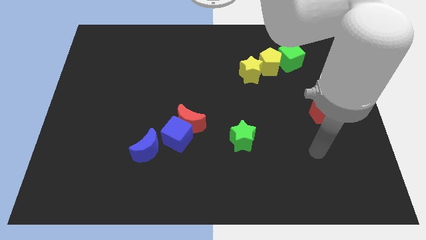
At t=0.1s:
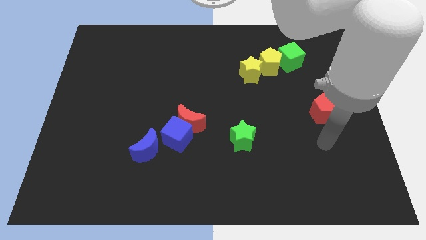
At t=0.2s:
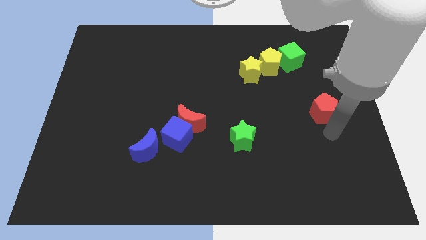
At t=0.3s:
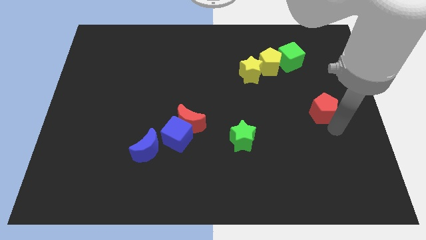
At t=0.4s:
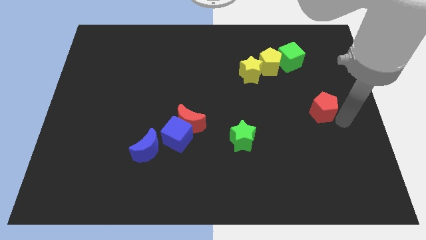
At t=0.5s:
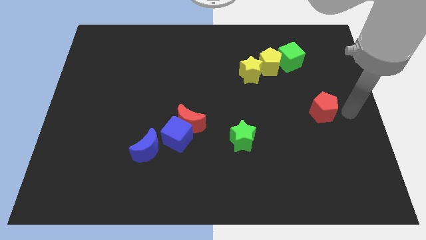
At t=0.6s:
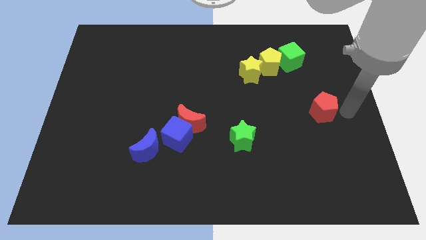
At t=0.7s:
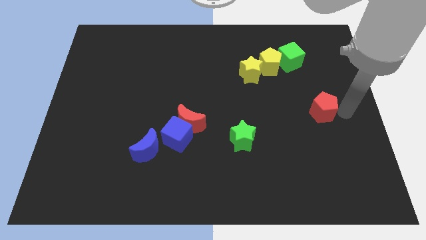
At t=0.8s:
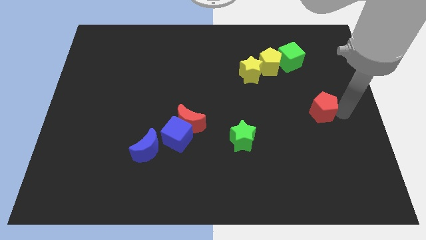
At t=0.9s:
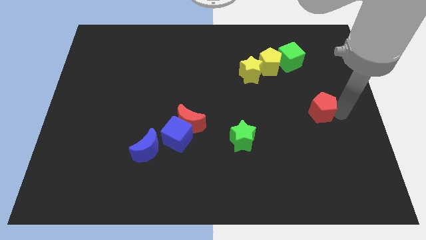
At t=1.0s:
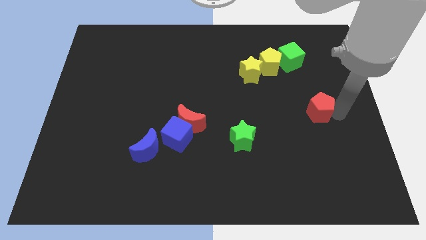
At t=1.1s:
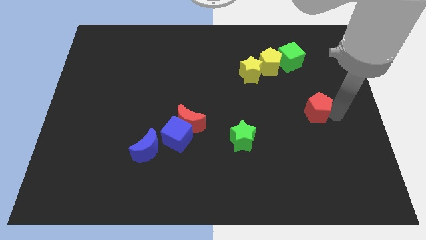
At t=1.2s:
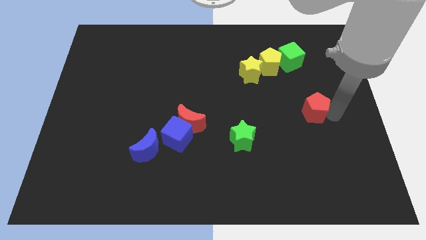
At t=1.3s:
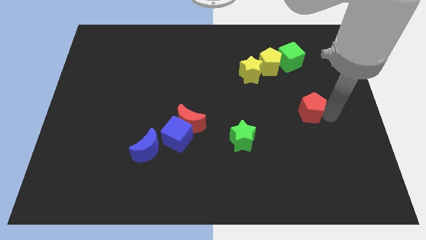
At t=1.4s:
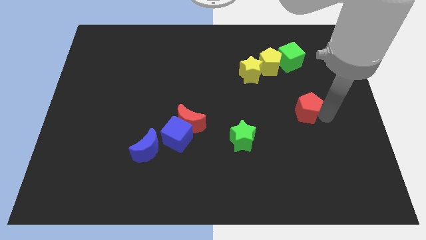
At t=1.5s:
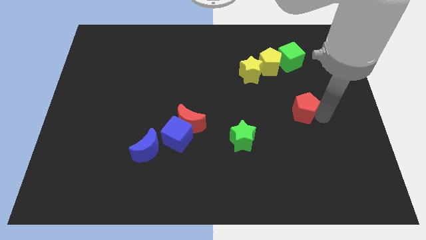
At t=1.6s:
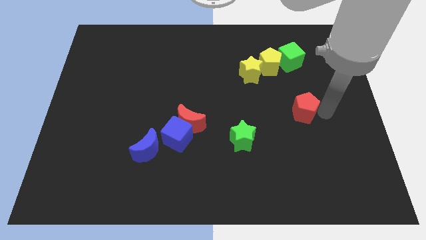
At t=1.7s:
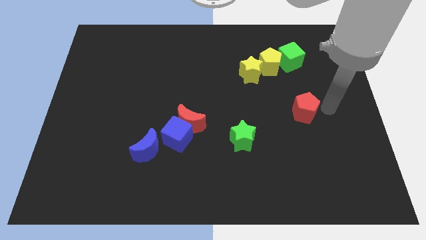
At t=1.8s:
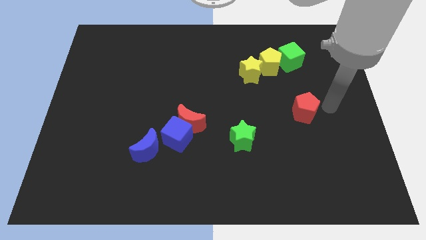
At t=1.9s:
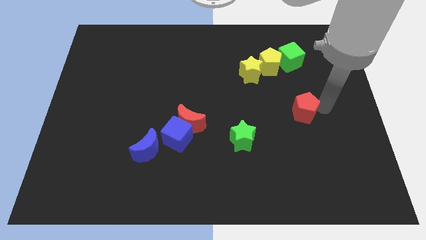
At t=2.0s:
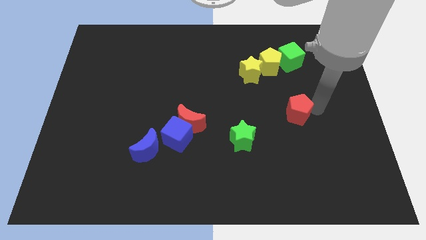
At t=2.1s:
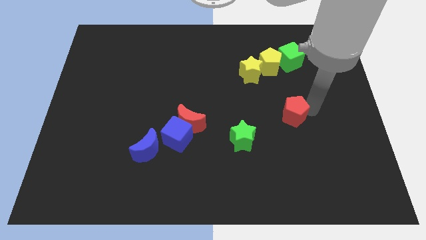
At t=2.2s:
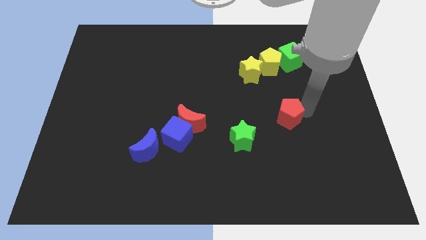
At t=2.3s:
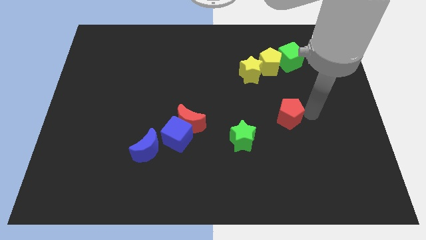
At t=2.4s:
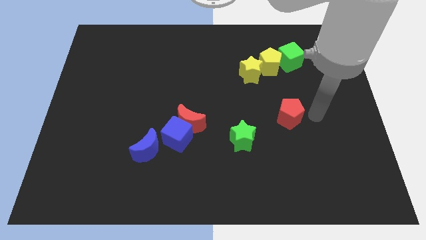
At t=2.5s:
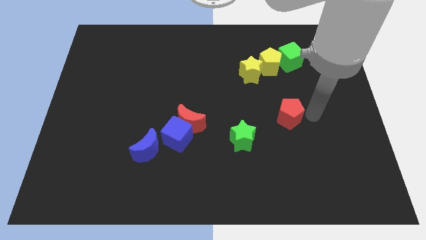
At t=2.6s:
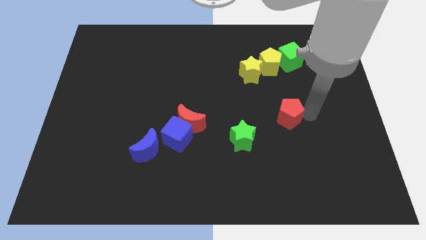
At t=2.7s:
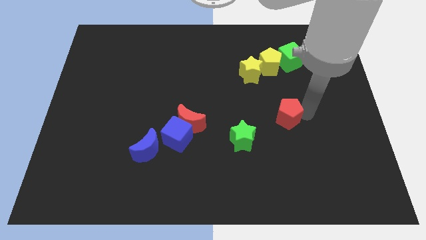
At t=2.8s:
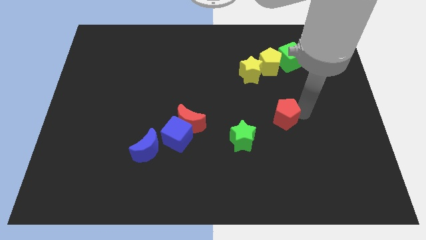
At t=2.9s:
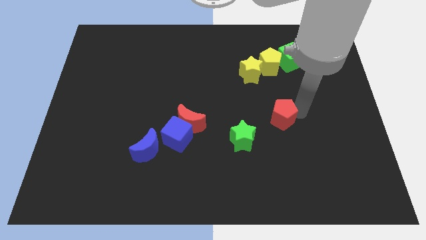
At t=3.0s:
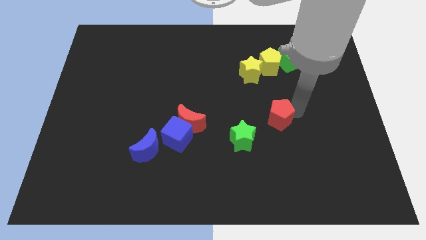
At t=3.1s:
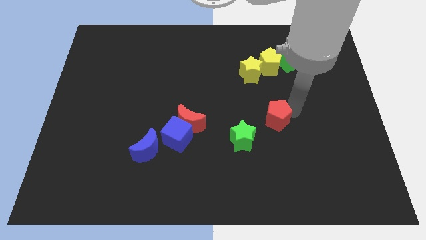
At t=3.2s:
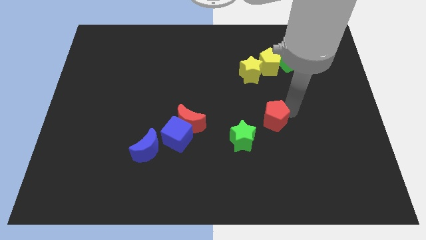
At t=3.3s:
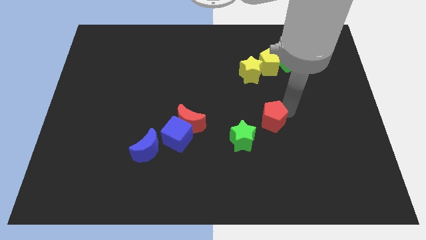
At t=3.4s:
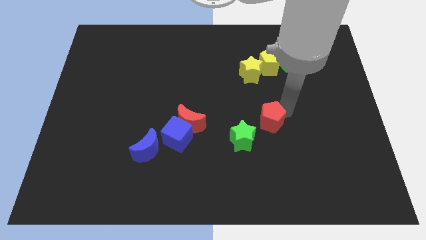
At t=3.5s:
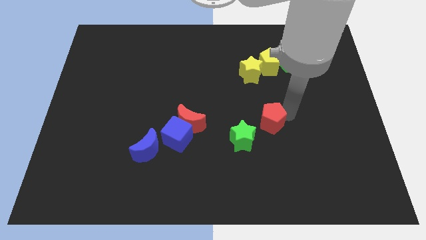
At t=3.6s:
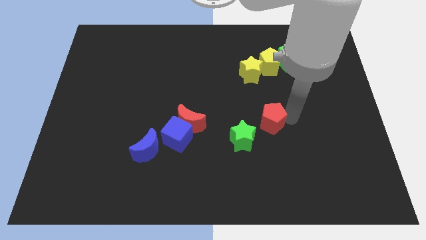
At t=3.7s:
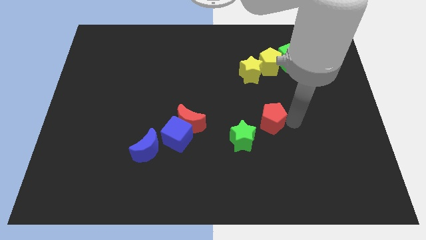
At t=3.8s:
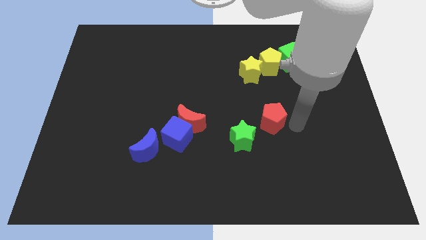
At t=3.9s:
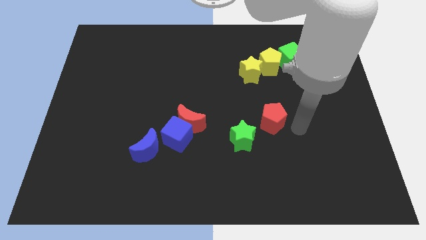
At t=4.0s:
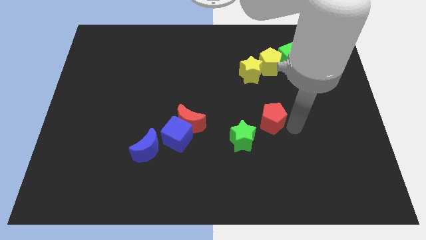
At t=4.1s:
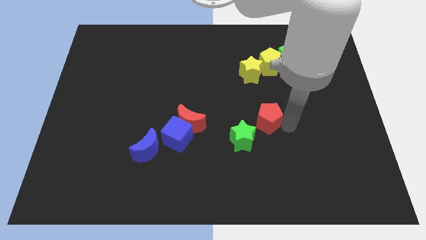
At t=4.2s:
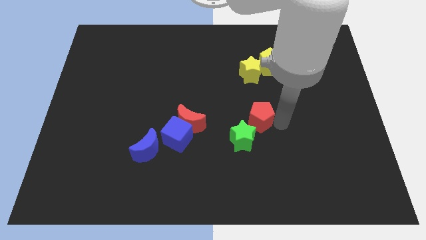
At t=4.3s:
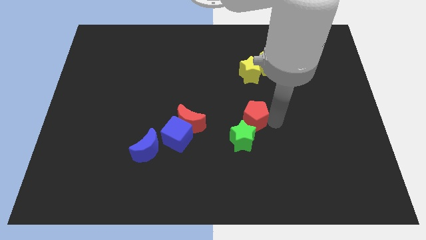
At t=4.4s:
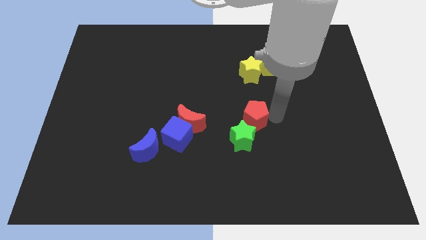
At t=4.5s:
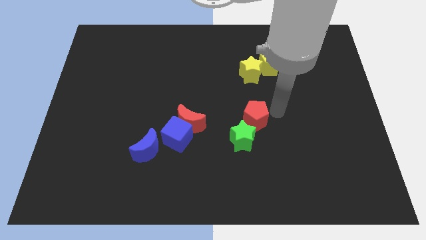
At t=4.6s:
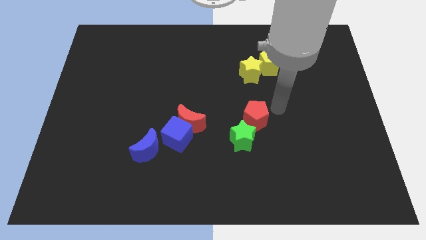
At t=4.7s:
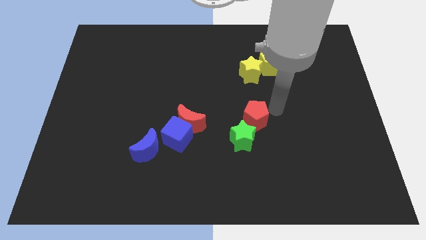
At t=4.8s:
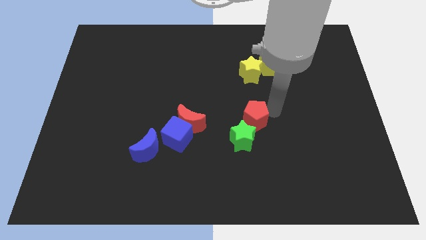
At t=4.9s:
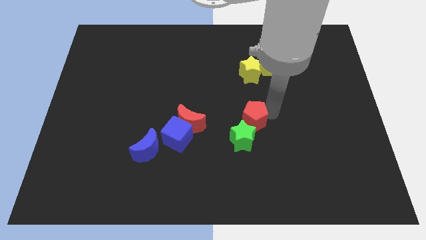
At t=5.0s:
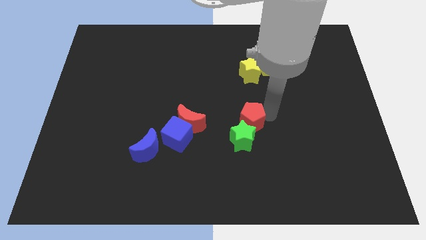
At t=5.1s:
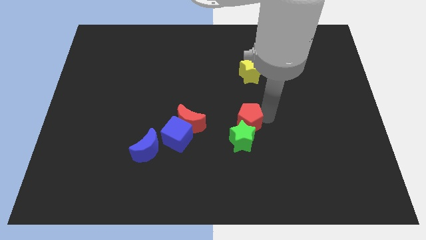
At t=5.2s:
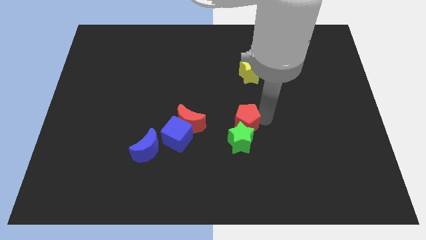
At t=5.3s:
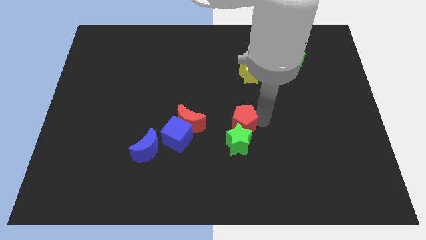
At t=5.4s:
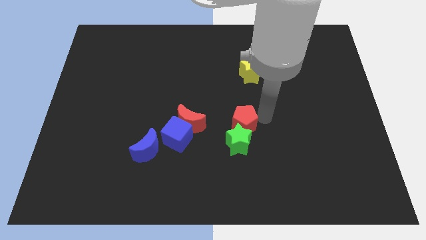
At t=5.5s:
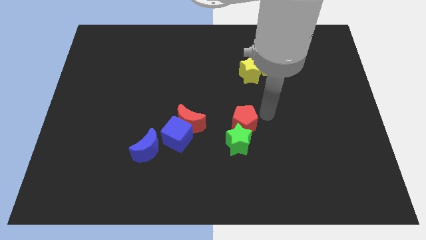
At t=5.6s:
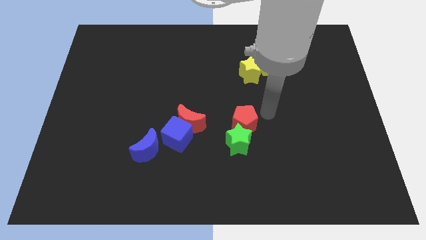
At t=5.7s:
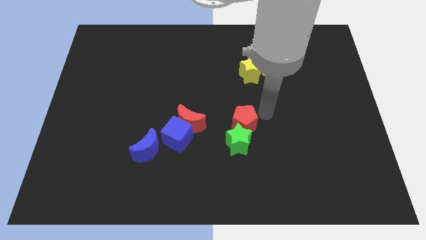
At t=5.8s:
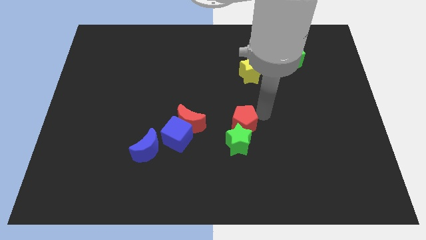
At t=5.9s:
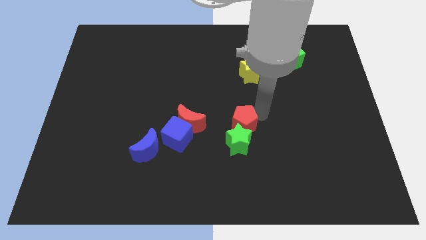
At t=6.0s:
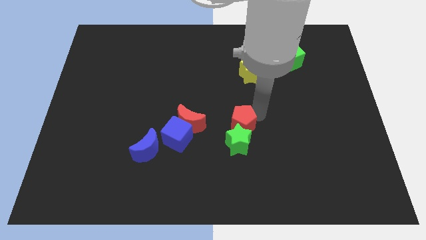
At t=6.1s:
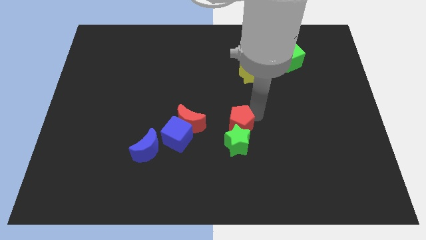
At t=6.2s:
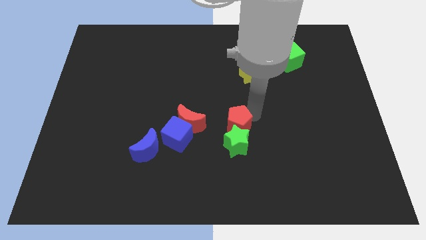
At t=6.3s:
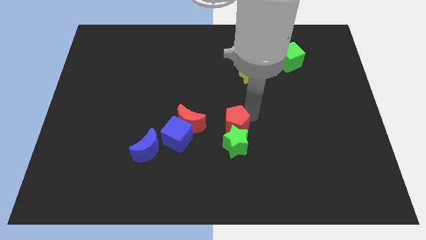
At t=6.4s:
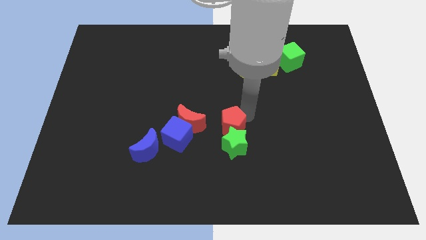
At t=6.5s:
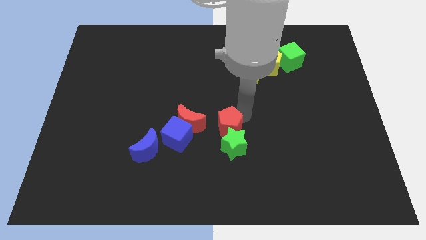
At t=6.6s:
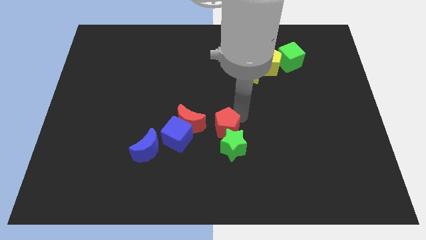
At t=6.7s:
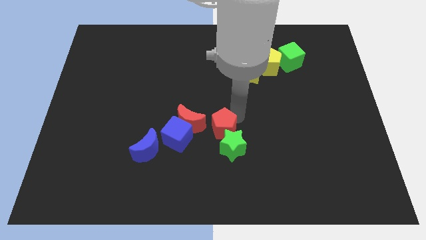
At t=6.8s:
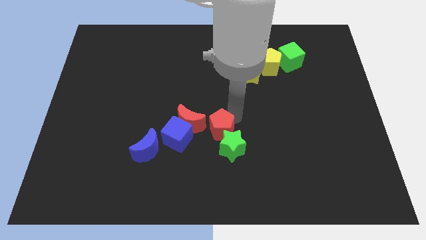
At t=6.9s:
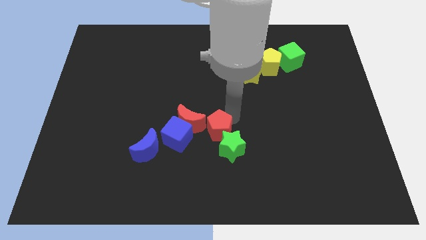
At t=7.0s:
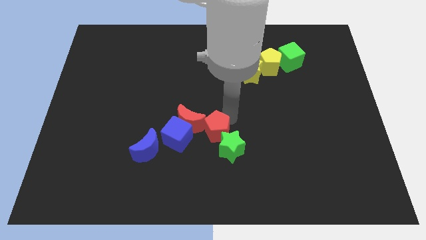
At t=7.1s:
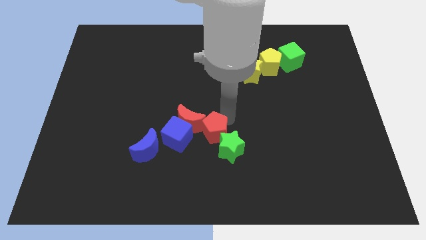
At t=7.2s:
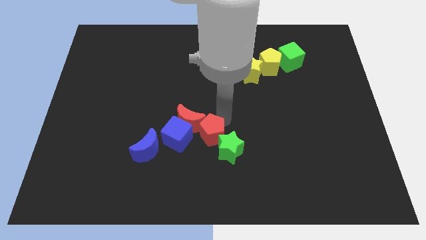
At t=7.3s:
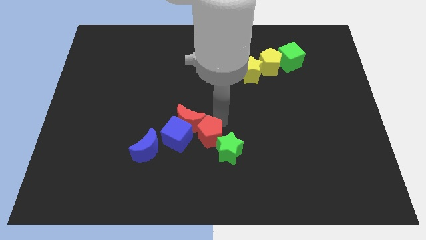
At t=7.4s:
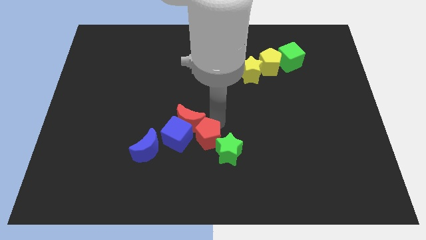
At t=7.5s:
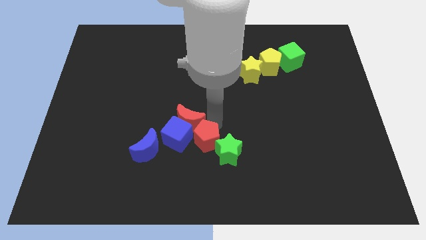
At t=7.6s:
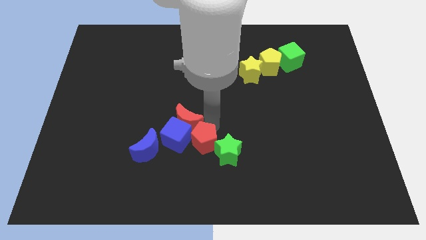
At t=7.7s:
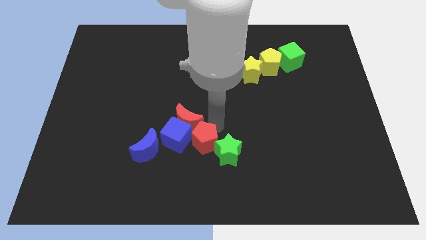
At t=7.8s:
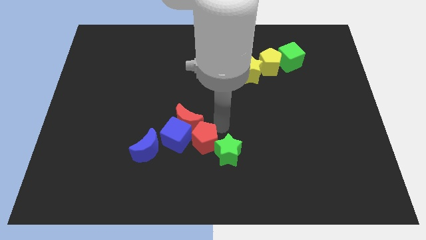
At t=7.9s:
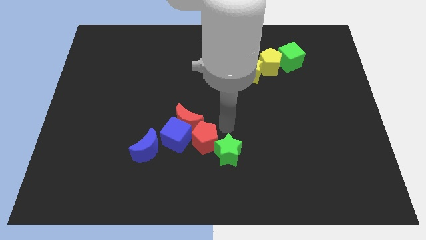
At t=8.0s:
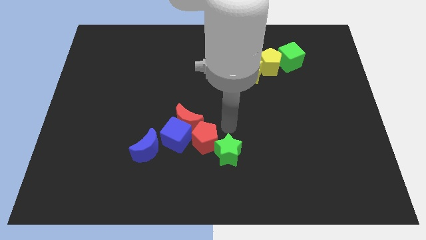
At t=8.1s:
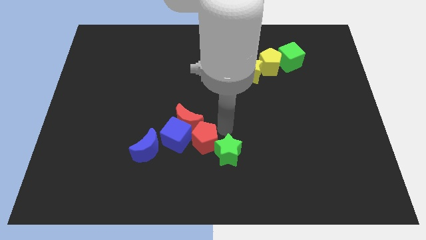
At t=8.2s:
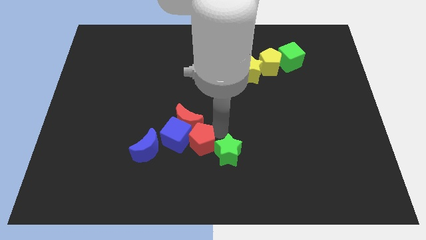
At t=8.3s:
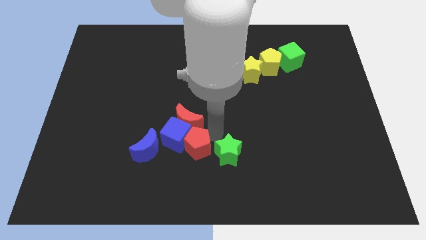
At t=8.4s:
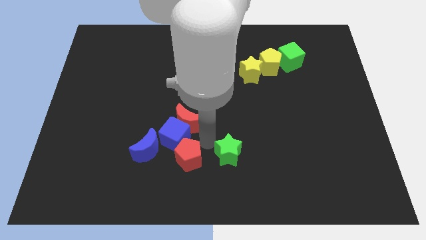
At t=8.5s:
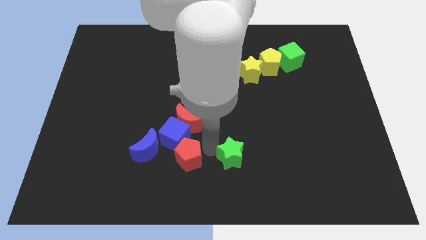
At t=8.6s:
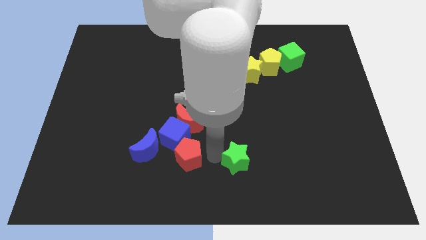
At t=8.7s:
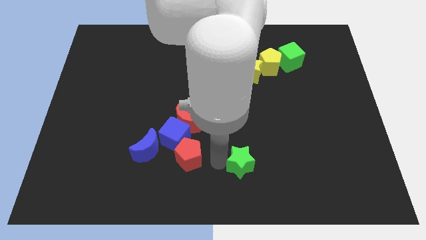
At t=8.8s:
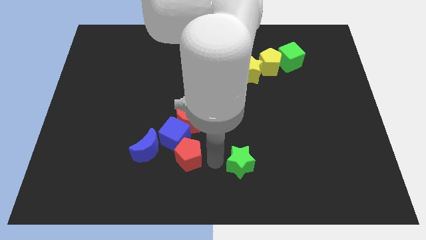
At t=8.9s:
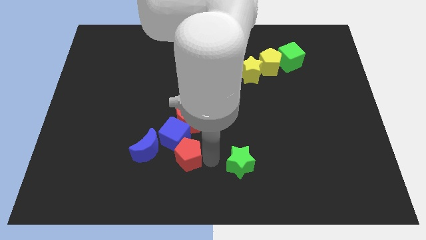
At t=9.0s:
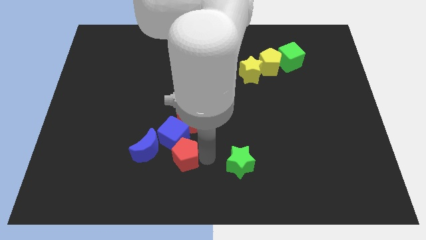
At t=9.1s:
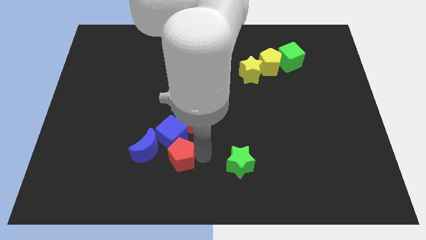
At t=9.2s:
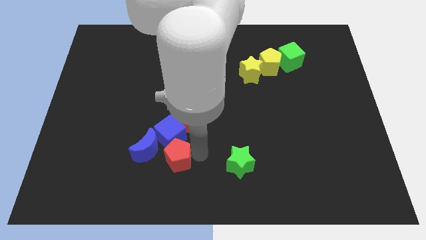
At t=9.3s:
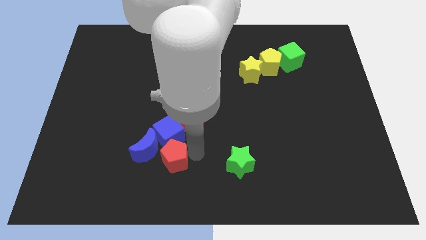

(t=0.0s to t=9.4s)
put the red pentagon close to the blue moon
